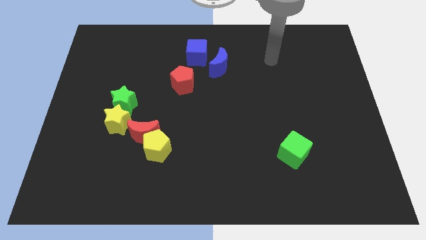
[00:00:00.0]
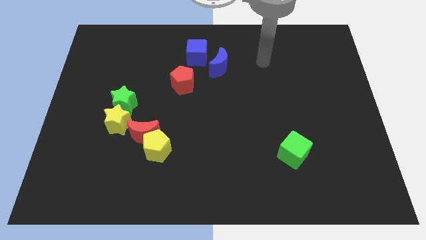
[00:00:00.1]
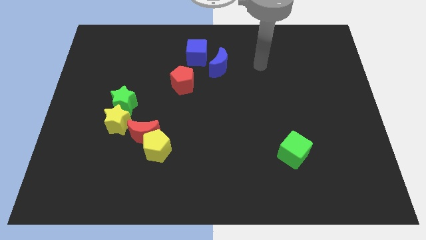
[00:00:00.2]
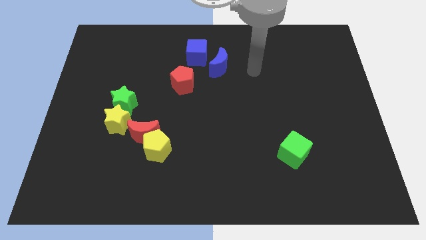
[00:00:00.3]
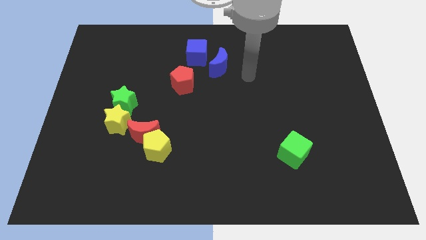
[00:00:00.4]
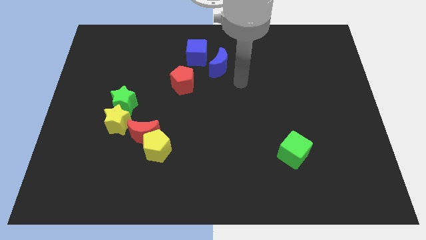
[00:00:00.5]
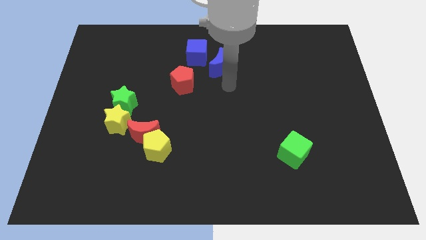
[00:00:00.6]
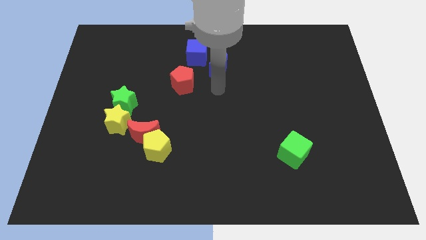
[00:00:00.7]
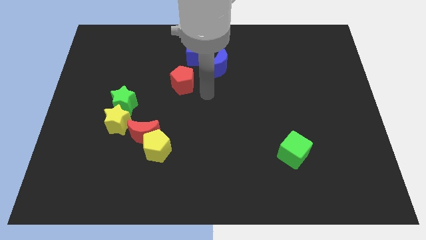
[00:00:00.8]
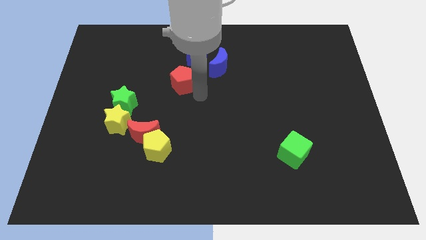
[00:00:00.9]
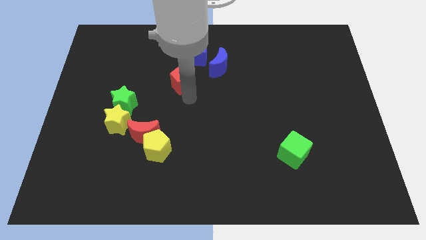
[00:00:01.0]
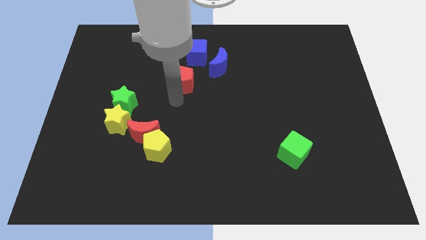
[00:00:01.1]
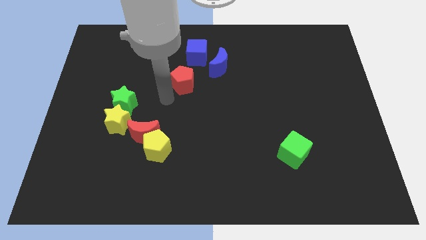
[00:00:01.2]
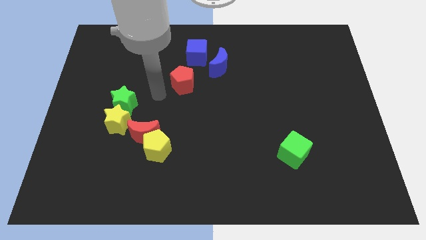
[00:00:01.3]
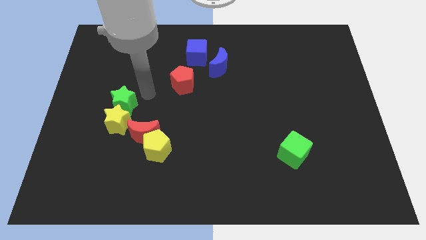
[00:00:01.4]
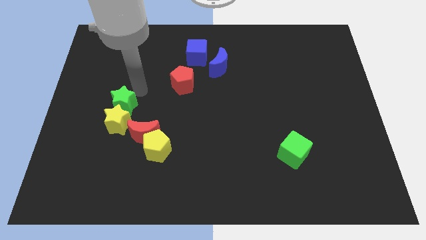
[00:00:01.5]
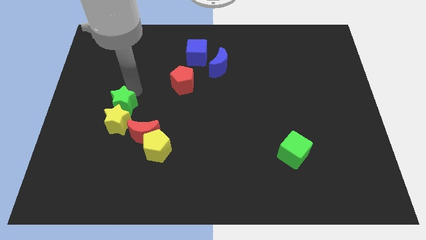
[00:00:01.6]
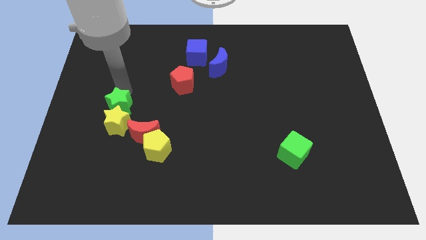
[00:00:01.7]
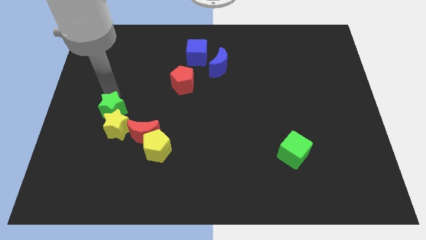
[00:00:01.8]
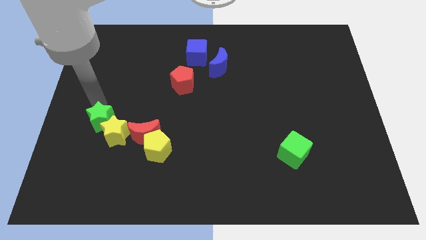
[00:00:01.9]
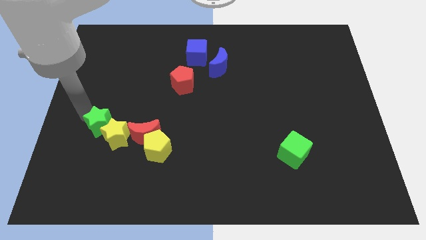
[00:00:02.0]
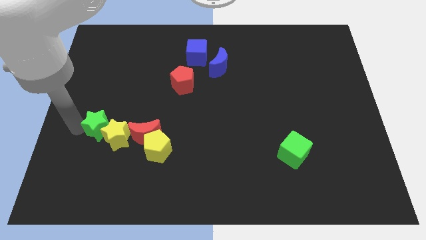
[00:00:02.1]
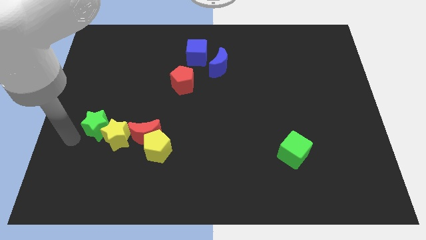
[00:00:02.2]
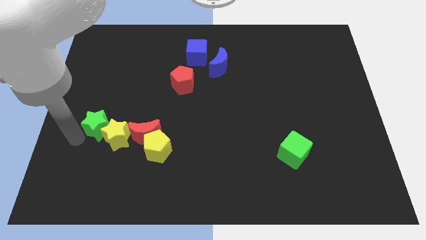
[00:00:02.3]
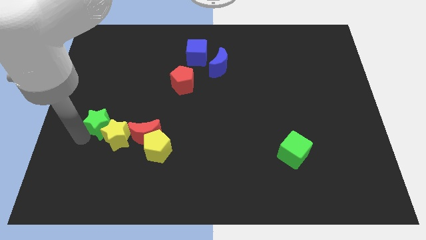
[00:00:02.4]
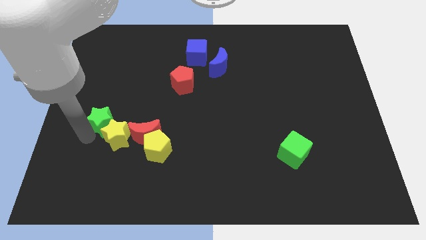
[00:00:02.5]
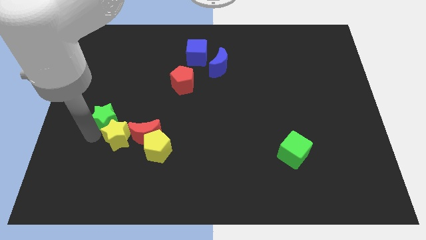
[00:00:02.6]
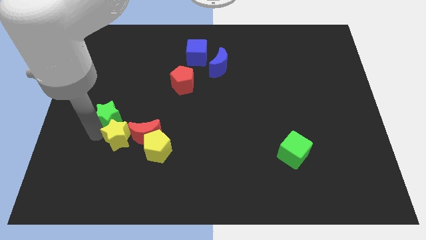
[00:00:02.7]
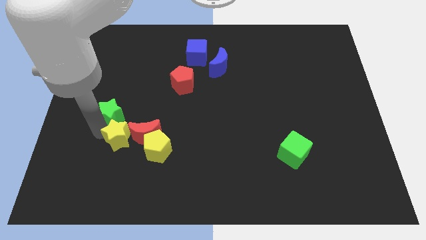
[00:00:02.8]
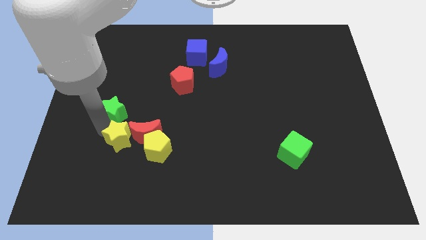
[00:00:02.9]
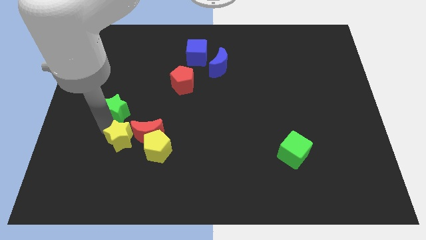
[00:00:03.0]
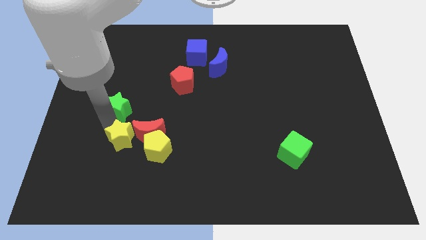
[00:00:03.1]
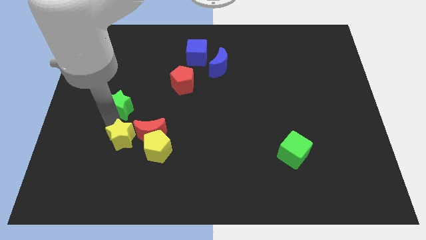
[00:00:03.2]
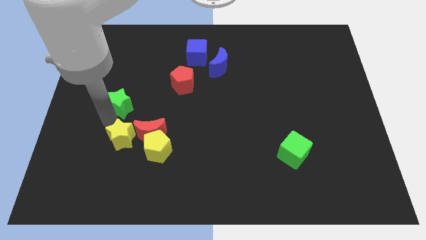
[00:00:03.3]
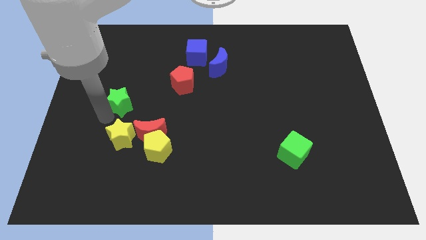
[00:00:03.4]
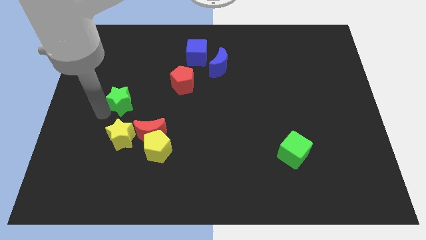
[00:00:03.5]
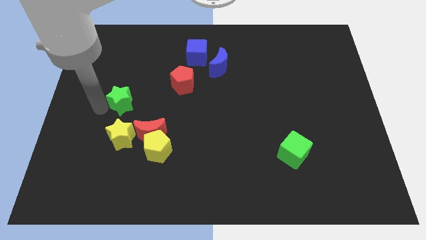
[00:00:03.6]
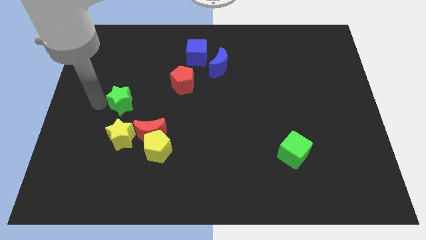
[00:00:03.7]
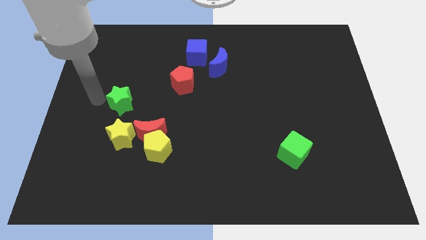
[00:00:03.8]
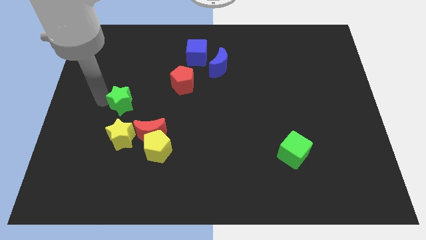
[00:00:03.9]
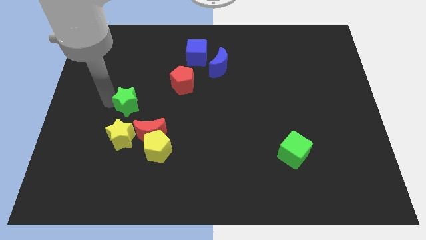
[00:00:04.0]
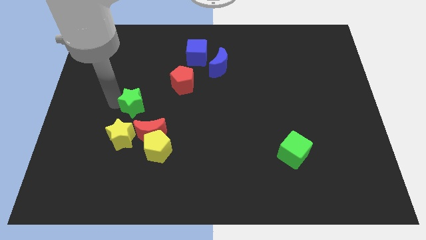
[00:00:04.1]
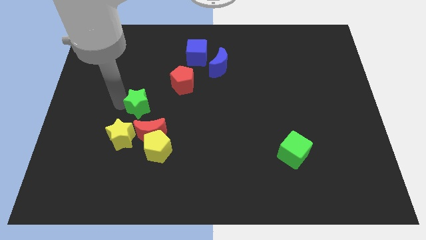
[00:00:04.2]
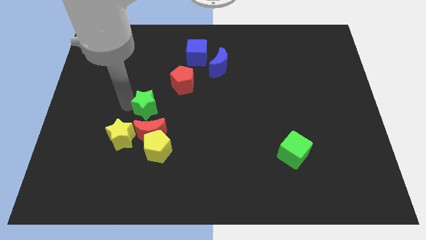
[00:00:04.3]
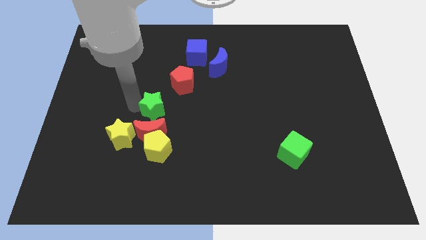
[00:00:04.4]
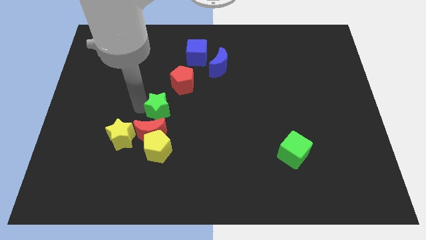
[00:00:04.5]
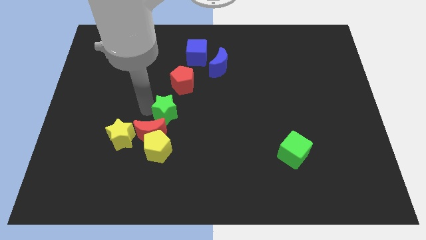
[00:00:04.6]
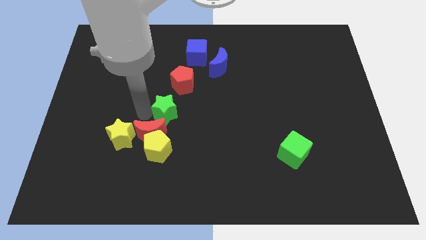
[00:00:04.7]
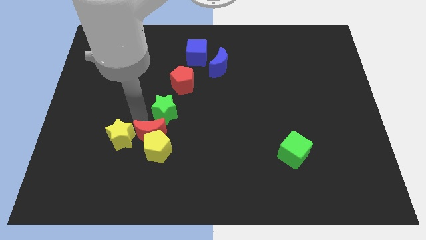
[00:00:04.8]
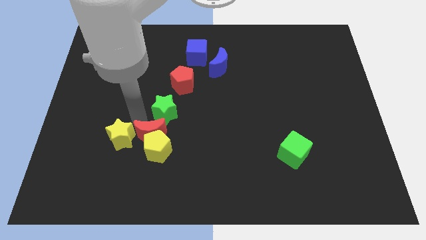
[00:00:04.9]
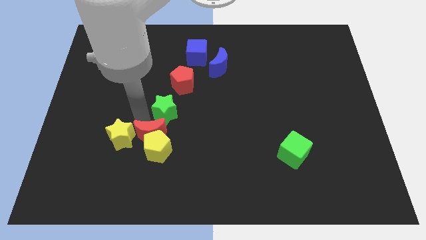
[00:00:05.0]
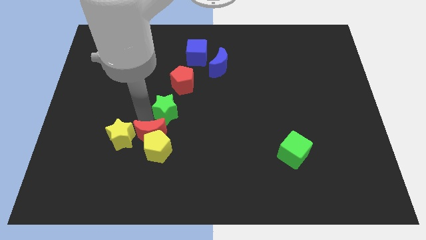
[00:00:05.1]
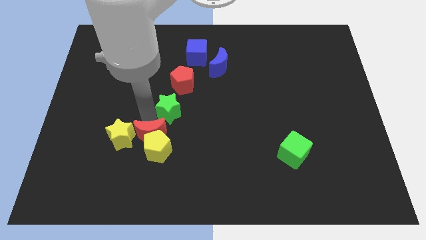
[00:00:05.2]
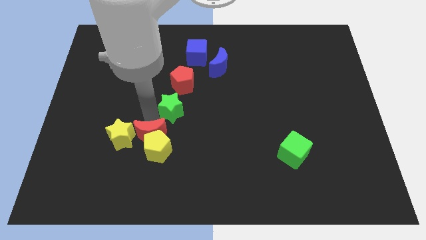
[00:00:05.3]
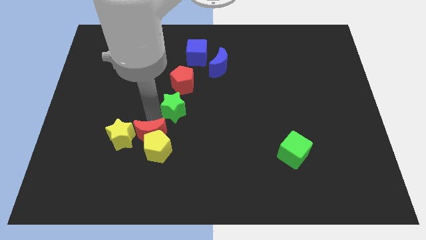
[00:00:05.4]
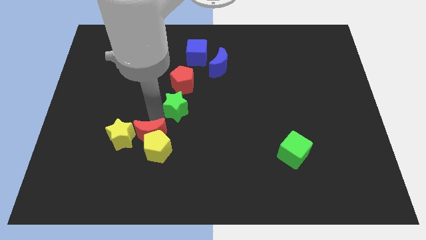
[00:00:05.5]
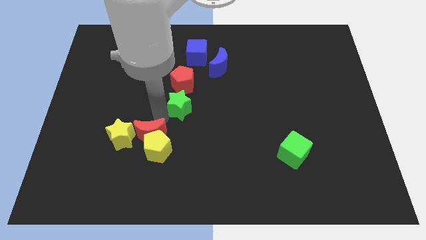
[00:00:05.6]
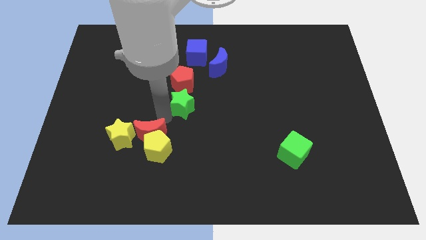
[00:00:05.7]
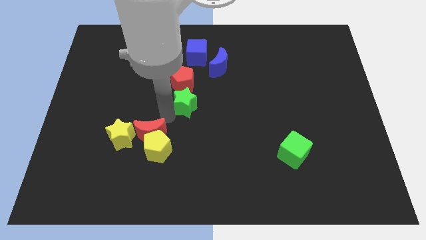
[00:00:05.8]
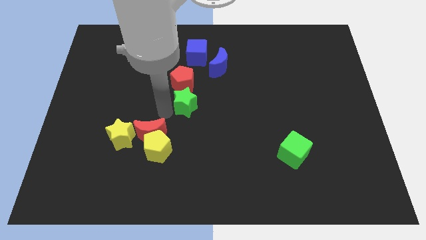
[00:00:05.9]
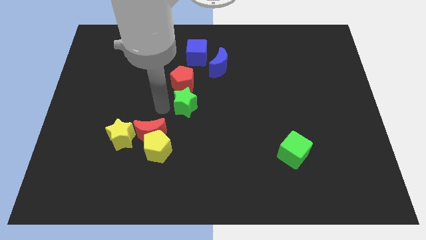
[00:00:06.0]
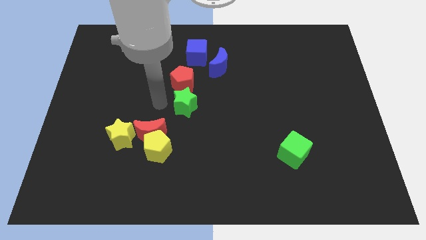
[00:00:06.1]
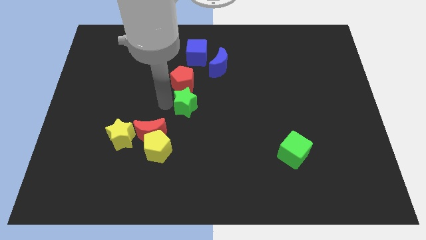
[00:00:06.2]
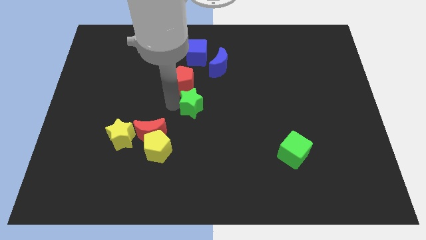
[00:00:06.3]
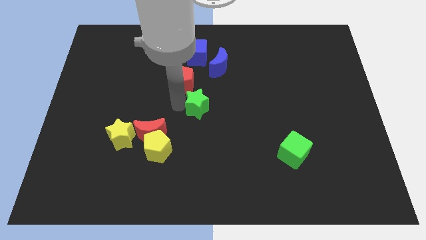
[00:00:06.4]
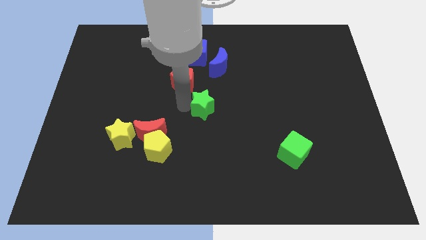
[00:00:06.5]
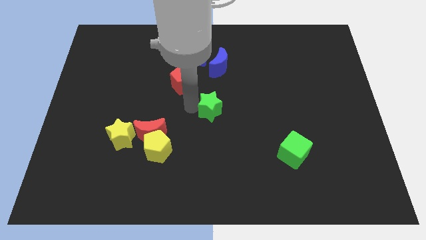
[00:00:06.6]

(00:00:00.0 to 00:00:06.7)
move the green star right

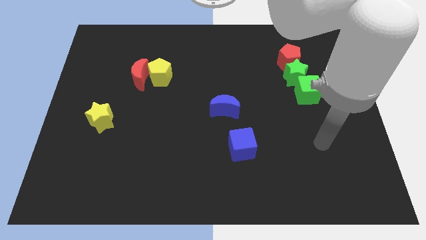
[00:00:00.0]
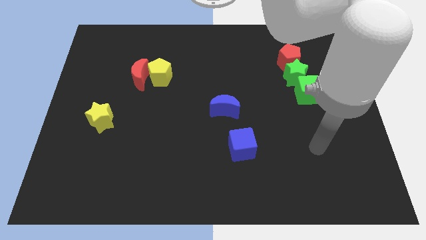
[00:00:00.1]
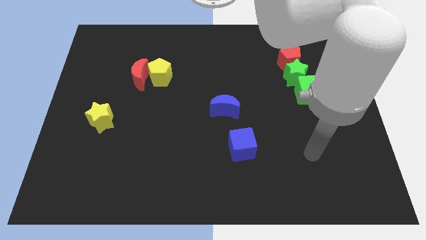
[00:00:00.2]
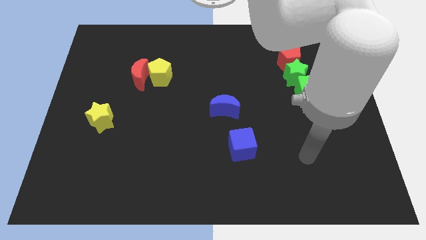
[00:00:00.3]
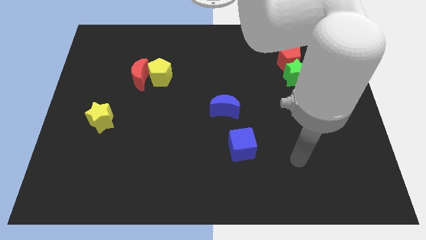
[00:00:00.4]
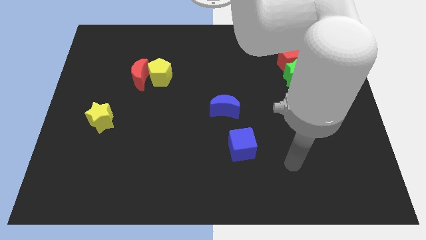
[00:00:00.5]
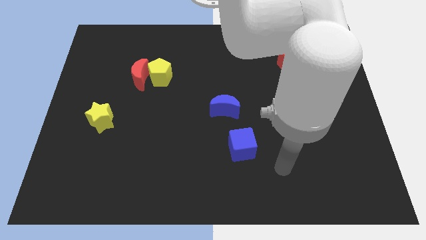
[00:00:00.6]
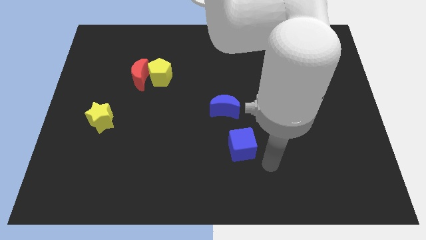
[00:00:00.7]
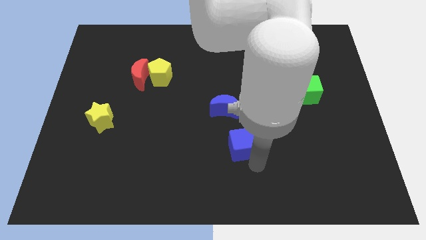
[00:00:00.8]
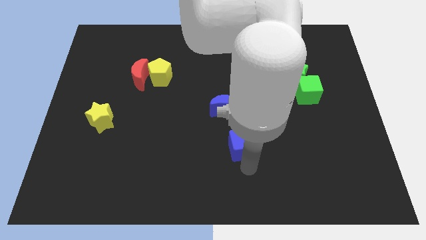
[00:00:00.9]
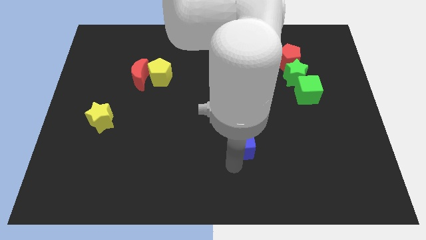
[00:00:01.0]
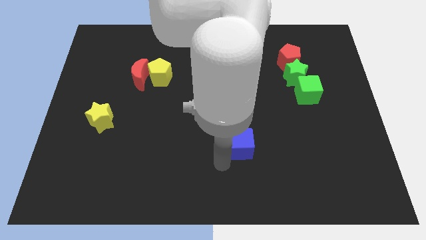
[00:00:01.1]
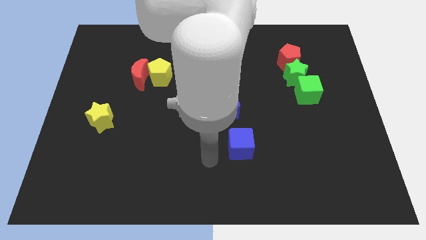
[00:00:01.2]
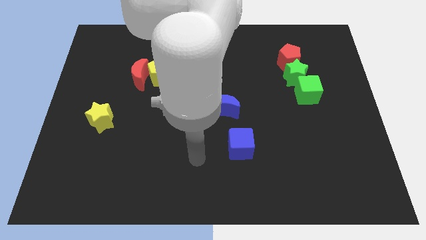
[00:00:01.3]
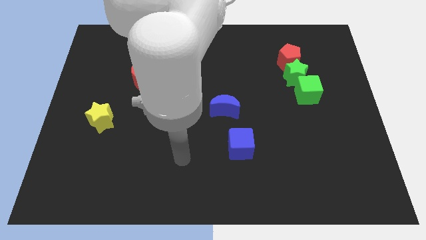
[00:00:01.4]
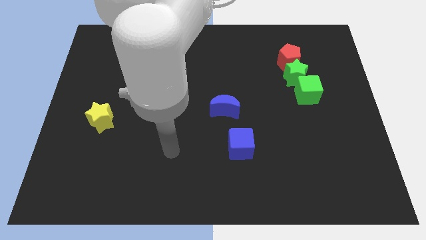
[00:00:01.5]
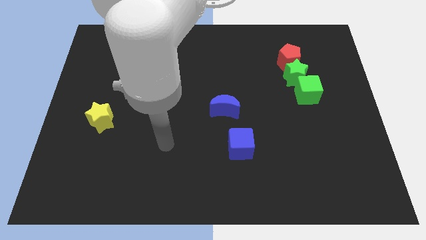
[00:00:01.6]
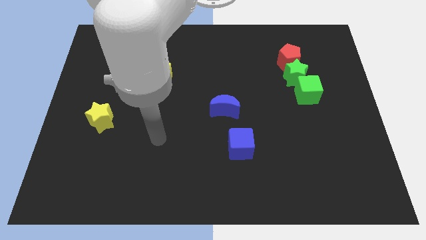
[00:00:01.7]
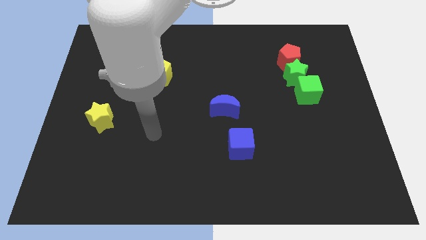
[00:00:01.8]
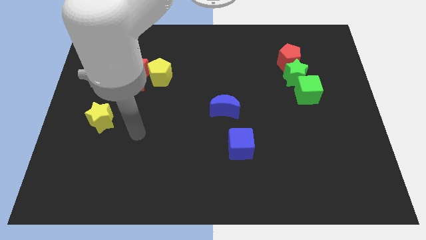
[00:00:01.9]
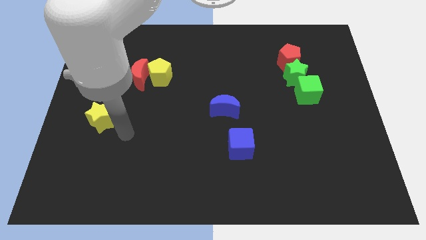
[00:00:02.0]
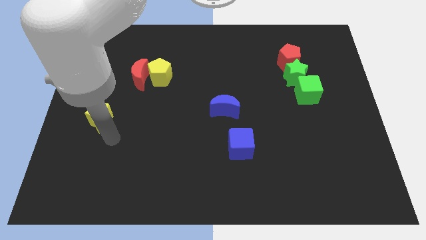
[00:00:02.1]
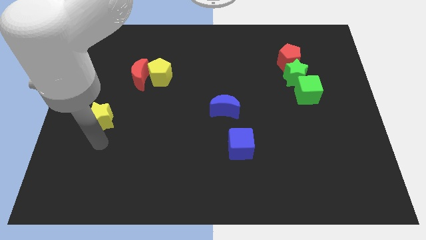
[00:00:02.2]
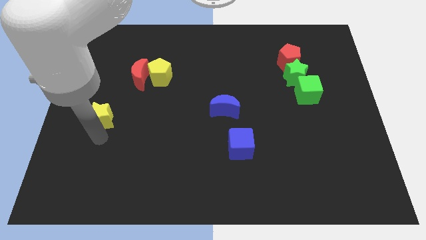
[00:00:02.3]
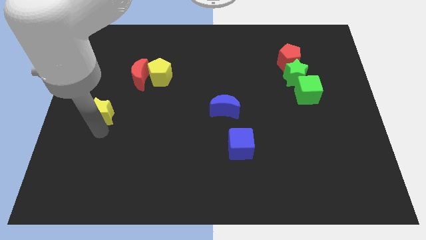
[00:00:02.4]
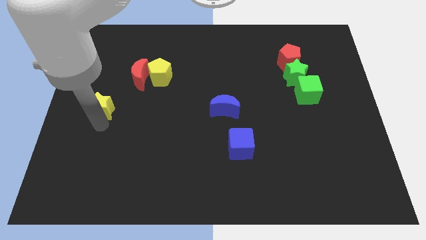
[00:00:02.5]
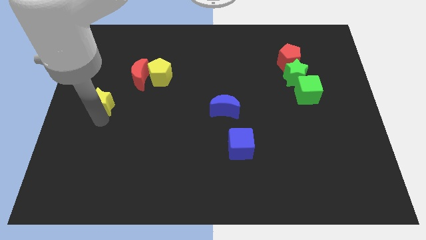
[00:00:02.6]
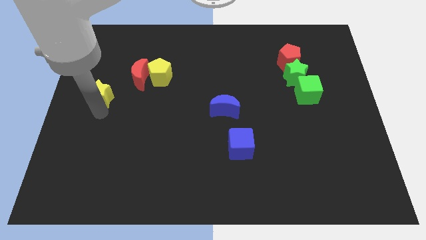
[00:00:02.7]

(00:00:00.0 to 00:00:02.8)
slide the yellow star upwards a little
